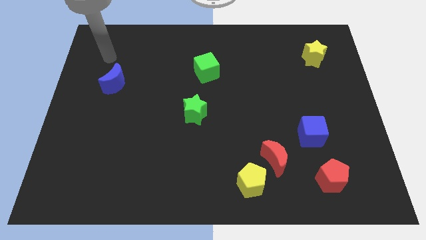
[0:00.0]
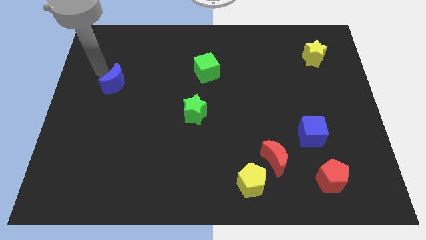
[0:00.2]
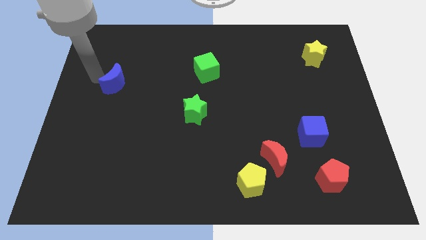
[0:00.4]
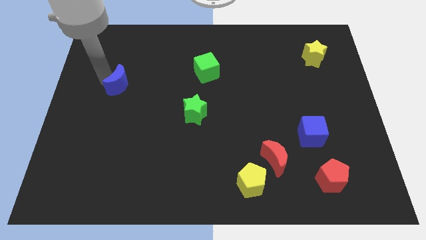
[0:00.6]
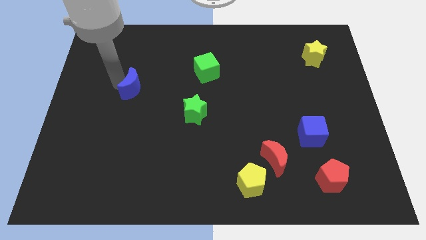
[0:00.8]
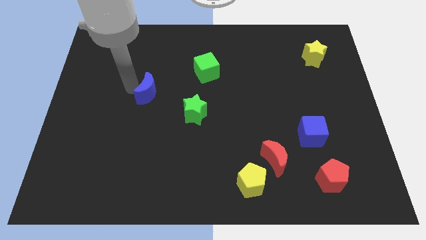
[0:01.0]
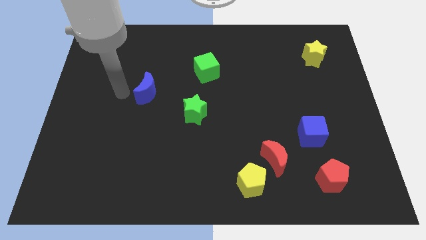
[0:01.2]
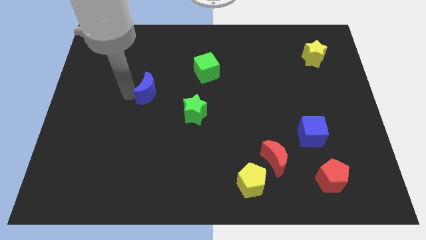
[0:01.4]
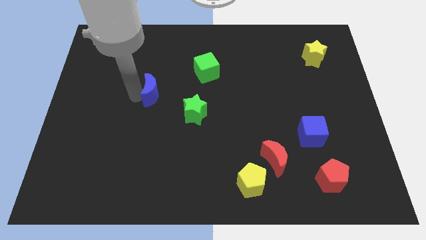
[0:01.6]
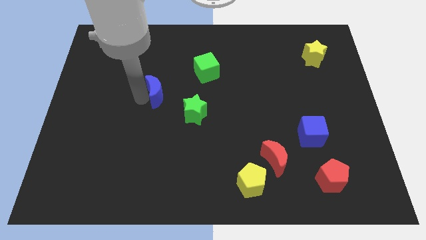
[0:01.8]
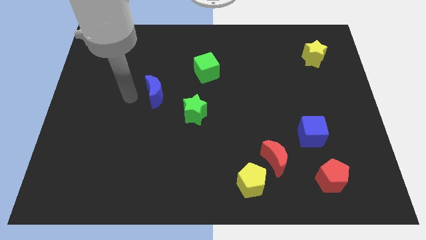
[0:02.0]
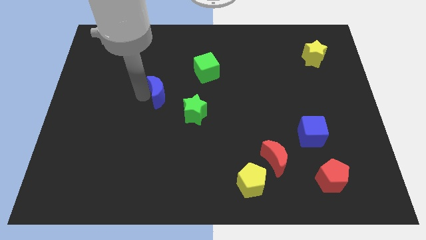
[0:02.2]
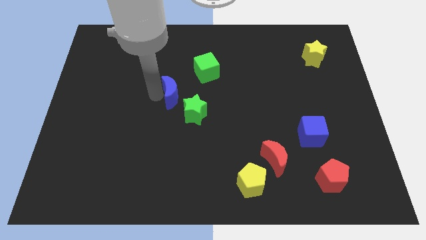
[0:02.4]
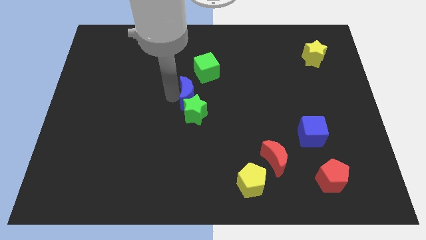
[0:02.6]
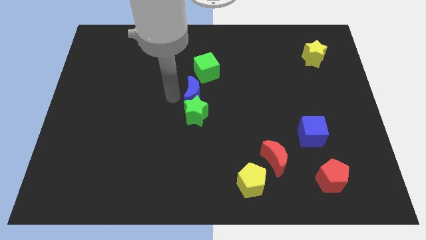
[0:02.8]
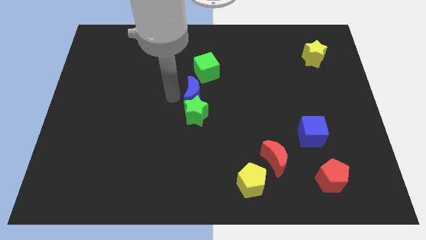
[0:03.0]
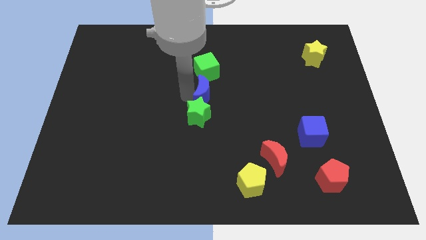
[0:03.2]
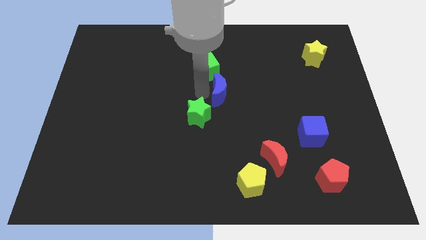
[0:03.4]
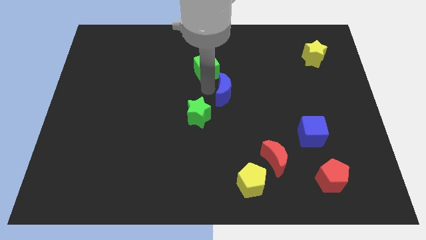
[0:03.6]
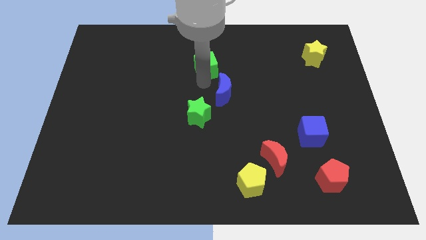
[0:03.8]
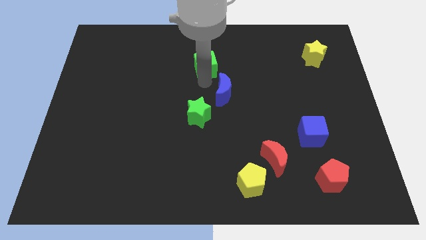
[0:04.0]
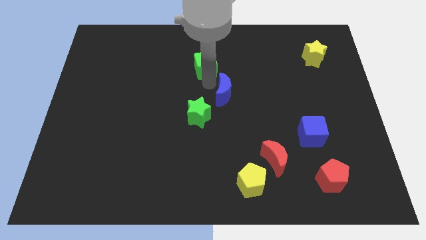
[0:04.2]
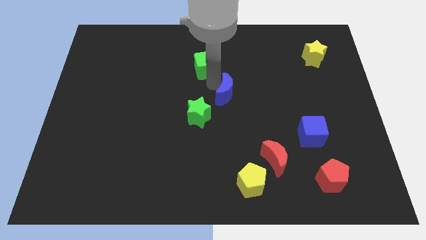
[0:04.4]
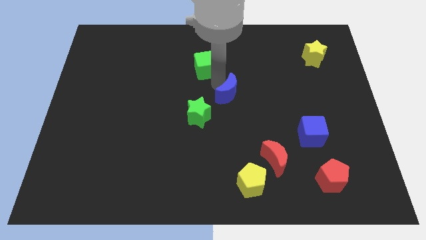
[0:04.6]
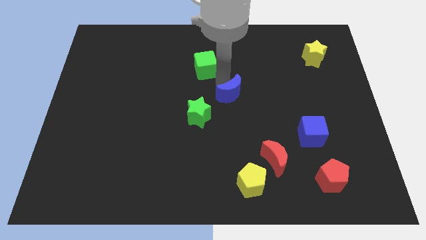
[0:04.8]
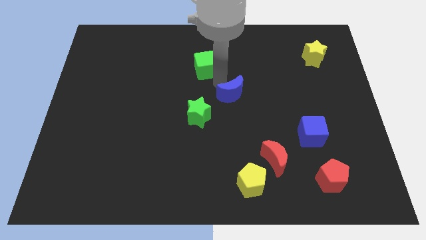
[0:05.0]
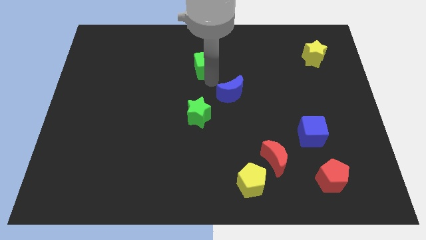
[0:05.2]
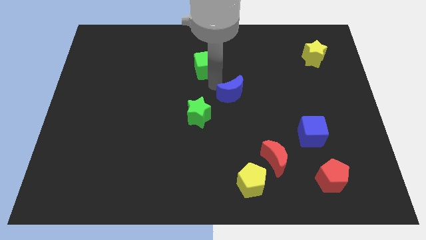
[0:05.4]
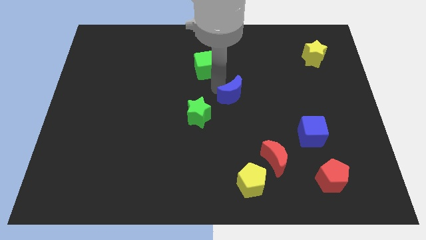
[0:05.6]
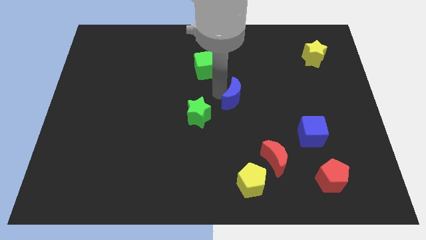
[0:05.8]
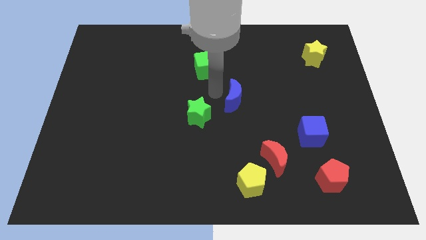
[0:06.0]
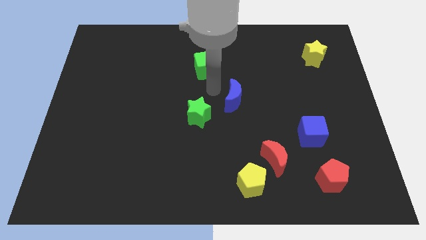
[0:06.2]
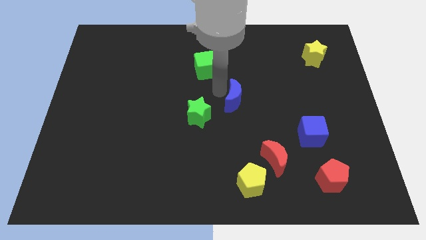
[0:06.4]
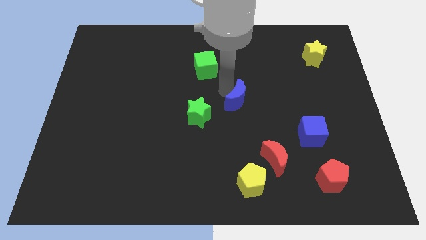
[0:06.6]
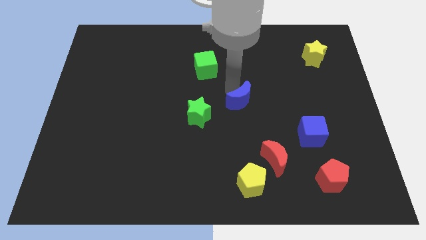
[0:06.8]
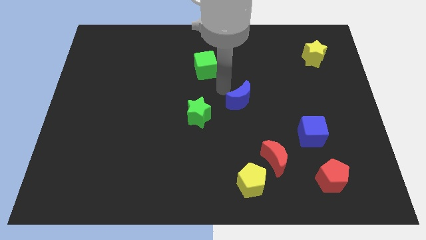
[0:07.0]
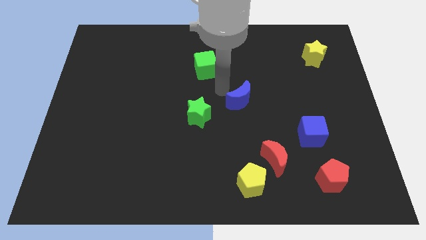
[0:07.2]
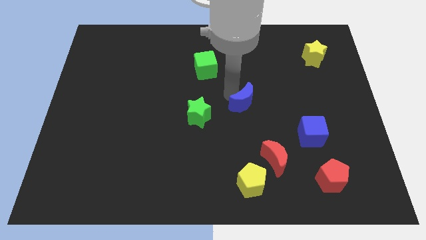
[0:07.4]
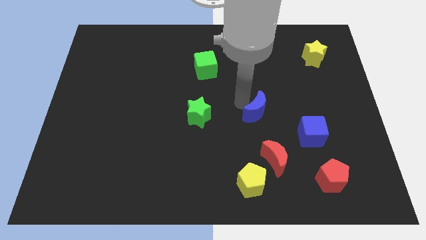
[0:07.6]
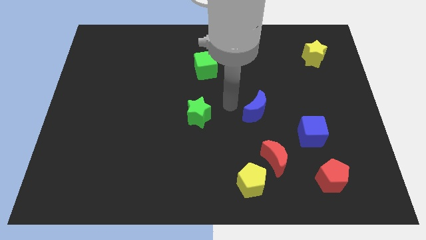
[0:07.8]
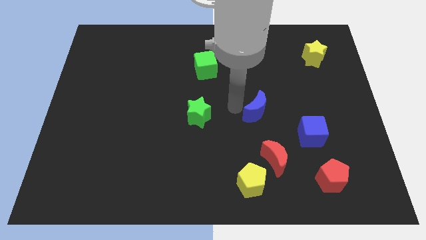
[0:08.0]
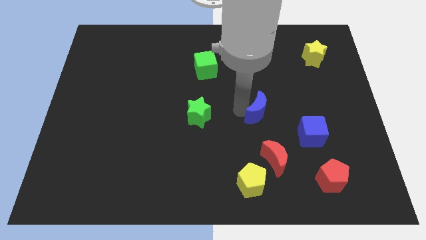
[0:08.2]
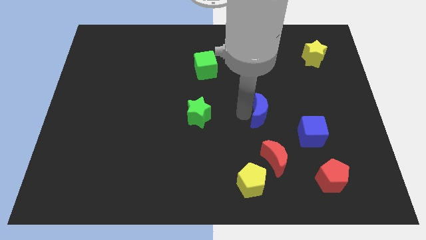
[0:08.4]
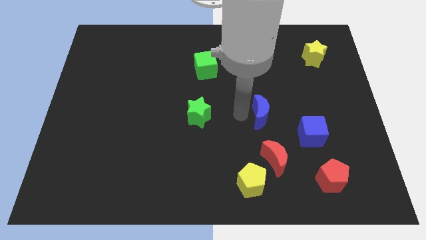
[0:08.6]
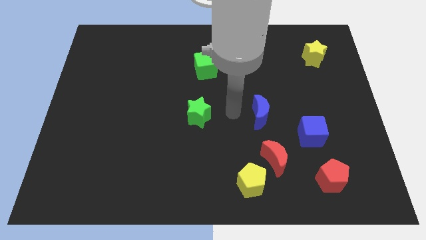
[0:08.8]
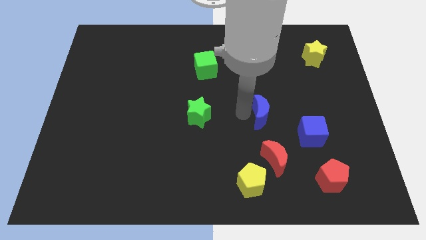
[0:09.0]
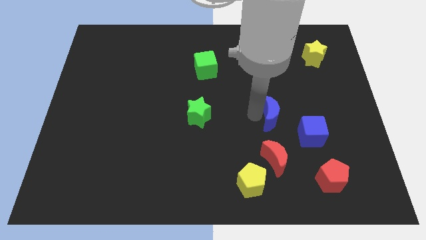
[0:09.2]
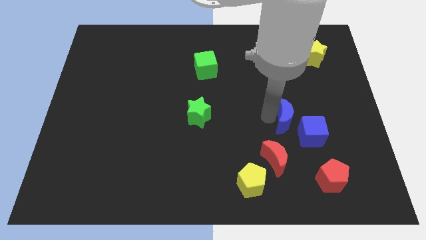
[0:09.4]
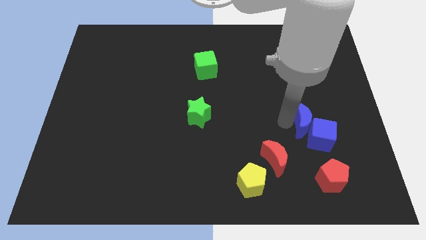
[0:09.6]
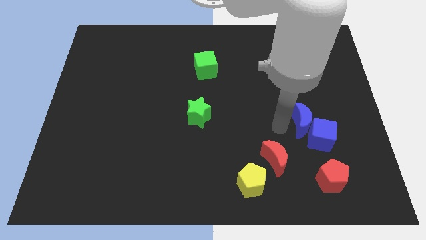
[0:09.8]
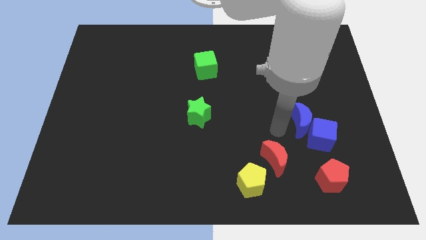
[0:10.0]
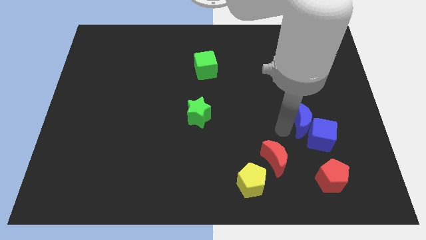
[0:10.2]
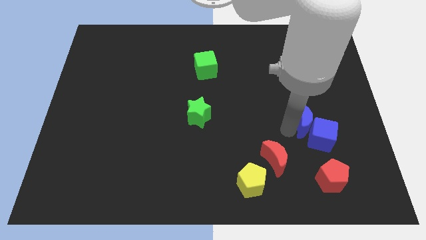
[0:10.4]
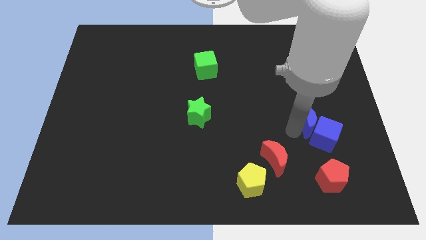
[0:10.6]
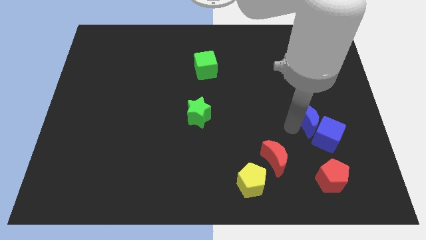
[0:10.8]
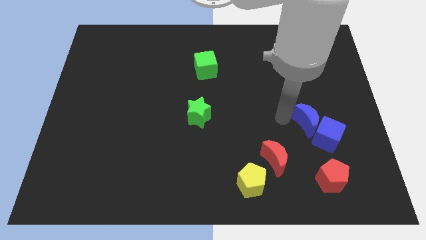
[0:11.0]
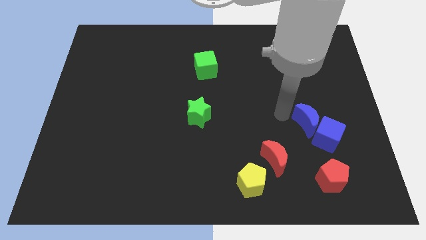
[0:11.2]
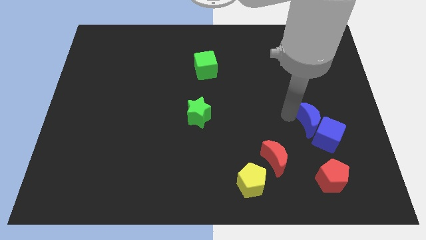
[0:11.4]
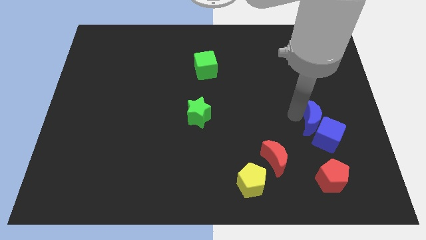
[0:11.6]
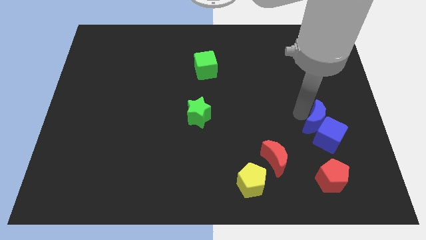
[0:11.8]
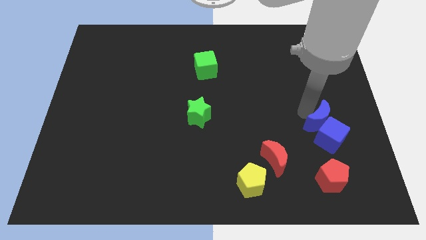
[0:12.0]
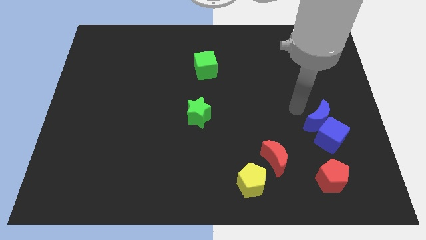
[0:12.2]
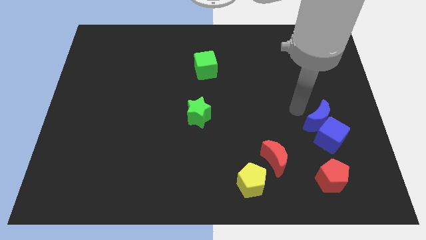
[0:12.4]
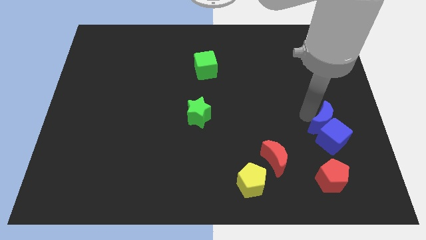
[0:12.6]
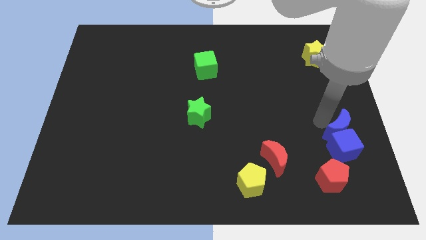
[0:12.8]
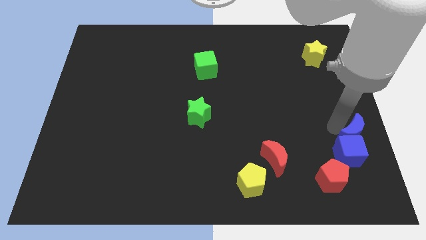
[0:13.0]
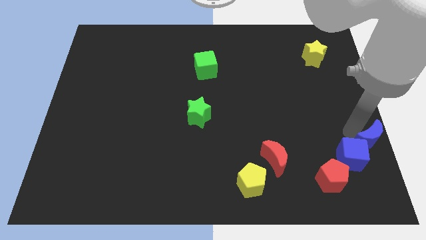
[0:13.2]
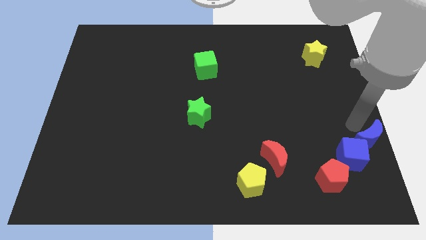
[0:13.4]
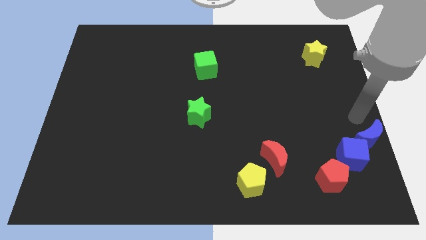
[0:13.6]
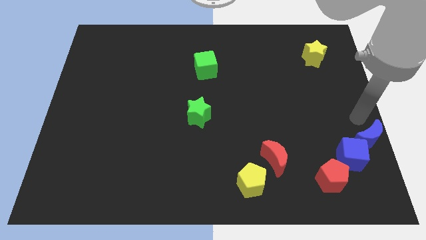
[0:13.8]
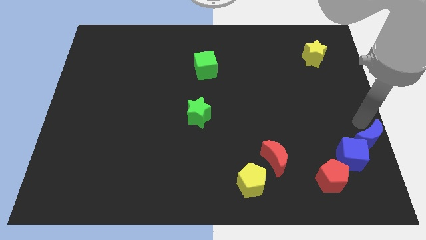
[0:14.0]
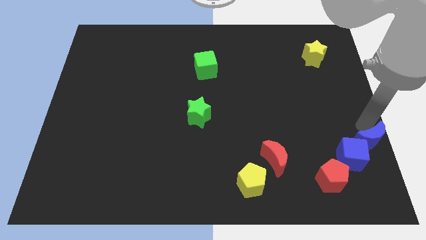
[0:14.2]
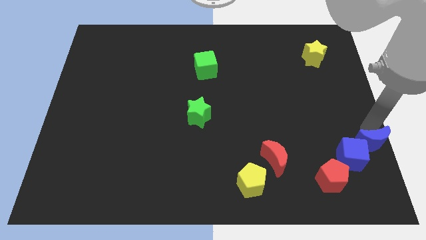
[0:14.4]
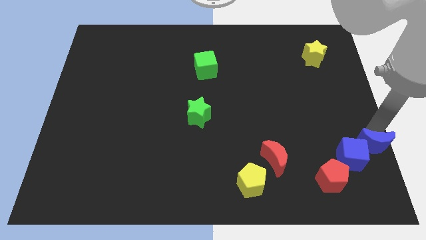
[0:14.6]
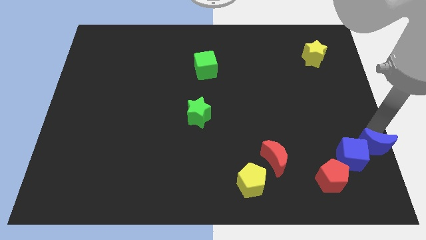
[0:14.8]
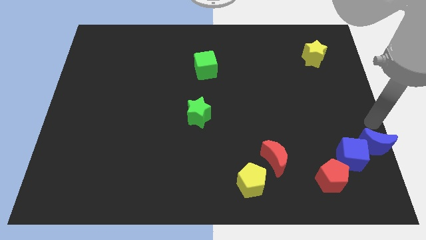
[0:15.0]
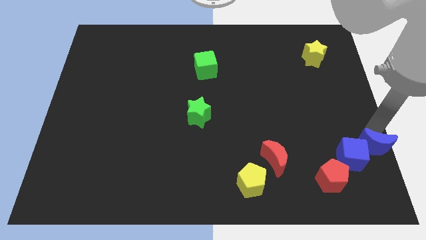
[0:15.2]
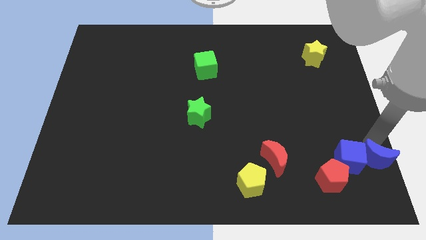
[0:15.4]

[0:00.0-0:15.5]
put the blue moon to the lower right corner
